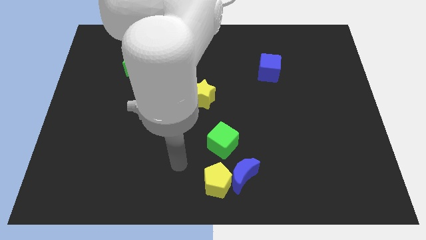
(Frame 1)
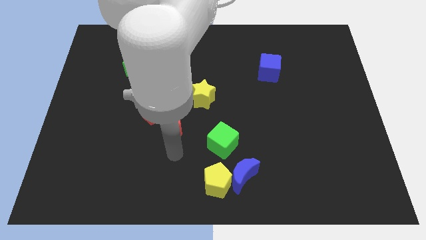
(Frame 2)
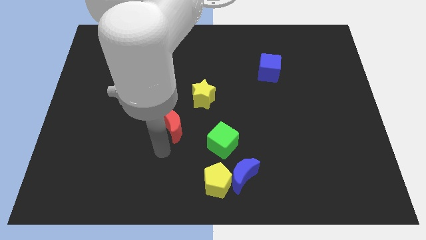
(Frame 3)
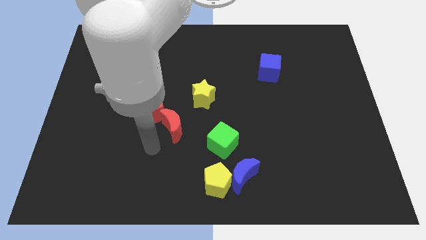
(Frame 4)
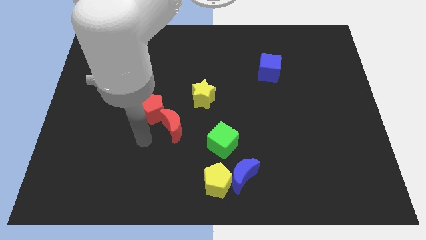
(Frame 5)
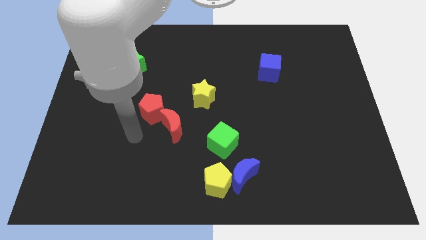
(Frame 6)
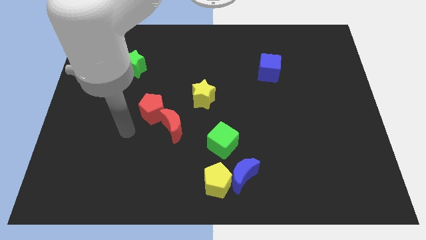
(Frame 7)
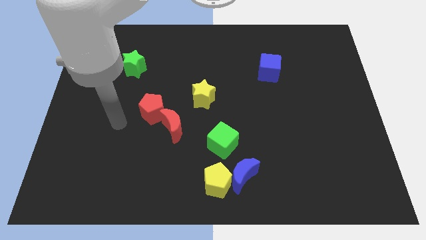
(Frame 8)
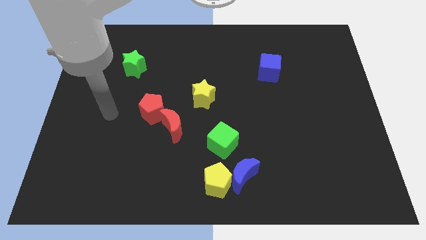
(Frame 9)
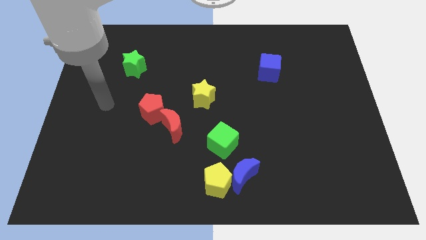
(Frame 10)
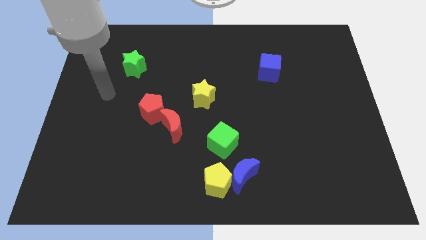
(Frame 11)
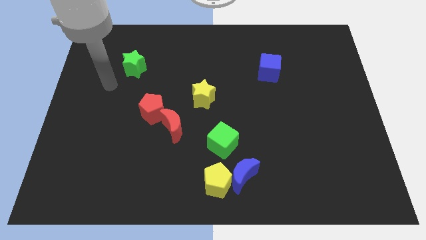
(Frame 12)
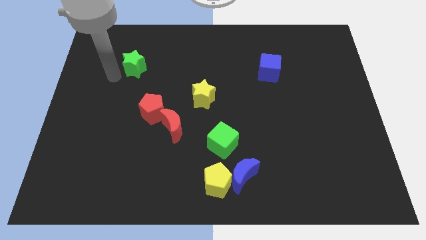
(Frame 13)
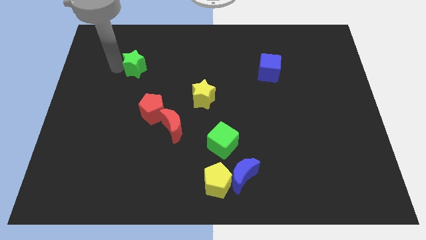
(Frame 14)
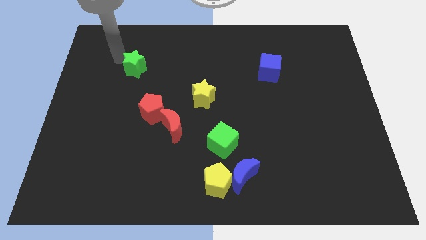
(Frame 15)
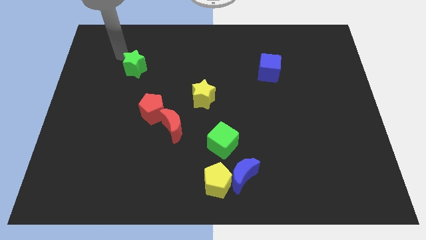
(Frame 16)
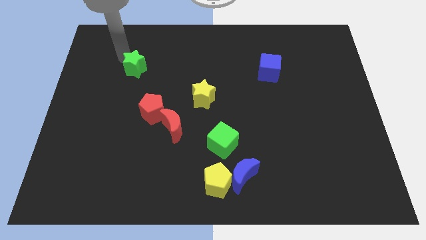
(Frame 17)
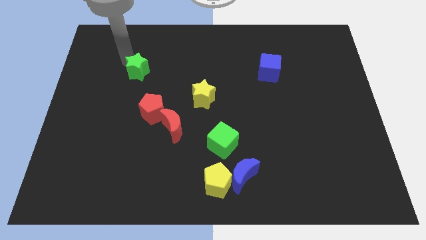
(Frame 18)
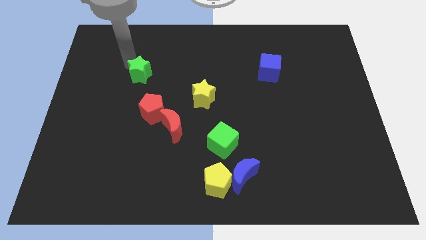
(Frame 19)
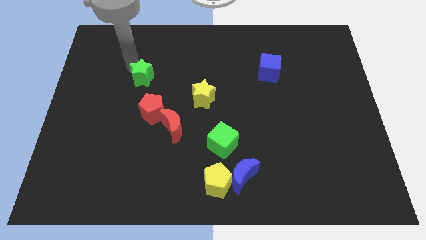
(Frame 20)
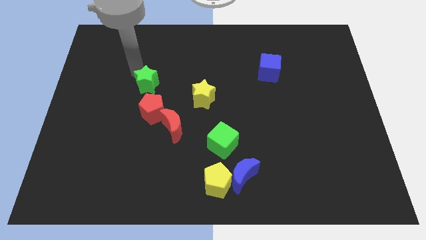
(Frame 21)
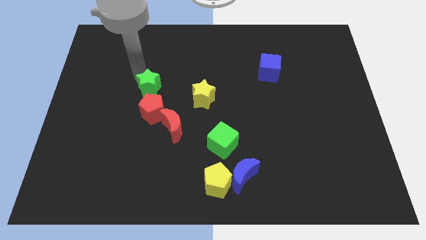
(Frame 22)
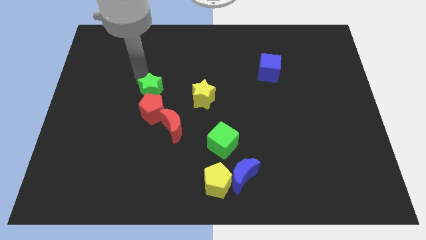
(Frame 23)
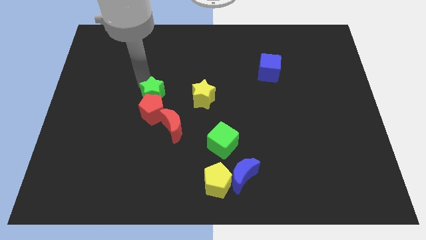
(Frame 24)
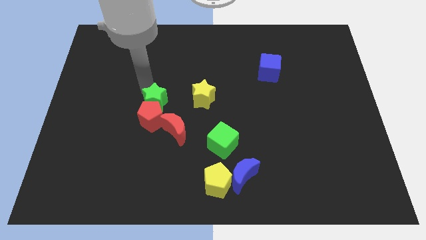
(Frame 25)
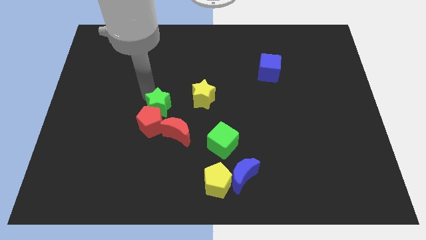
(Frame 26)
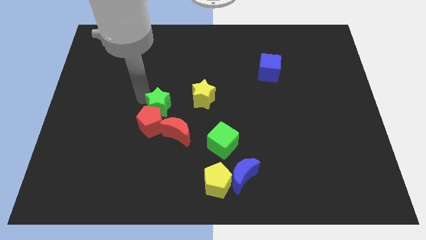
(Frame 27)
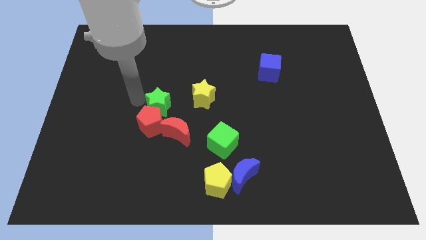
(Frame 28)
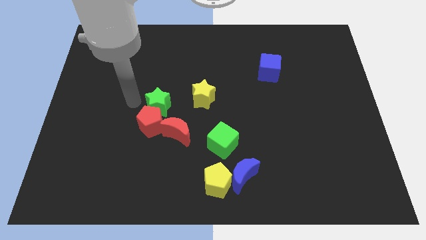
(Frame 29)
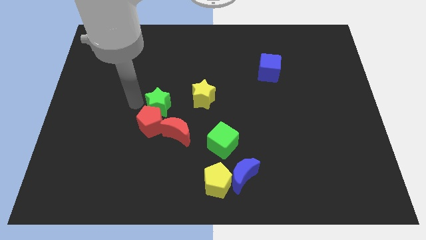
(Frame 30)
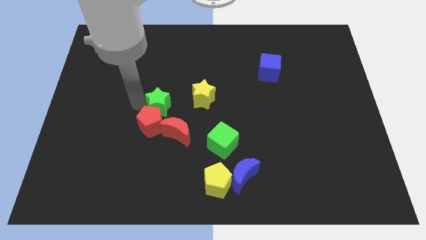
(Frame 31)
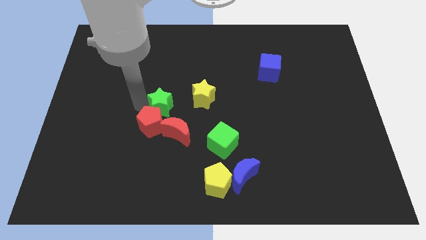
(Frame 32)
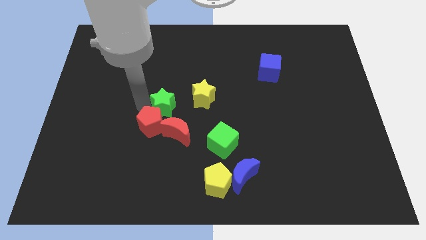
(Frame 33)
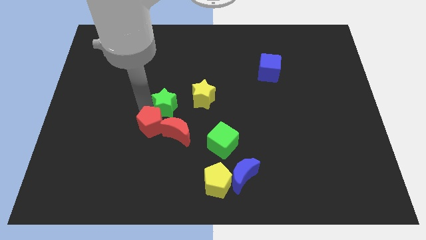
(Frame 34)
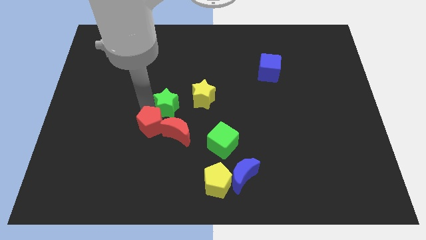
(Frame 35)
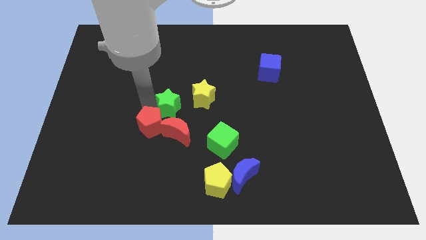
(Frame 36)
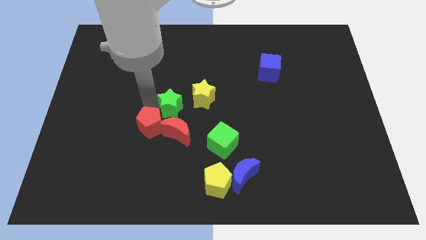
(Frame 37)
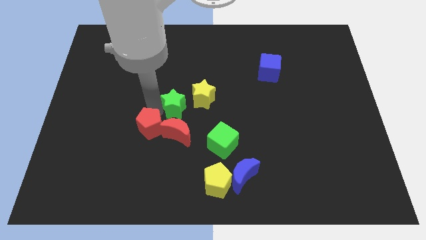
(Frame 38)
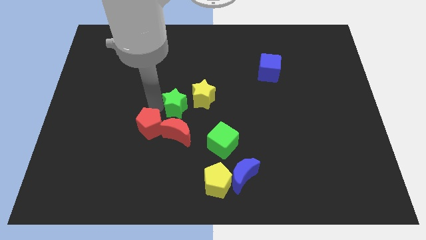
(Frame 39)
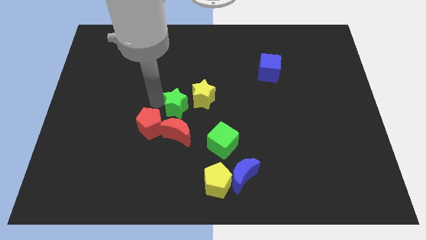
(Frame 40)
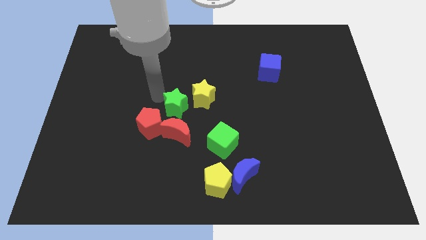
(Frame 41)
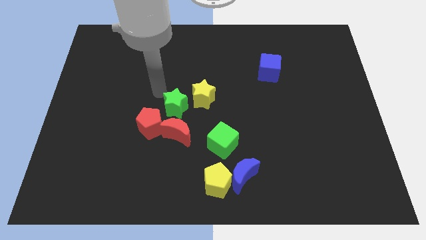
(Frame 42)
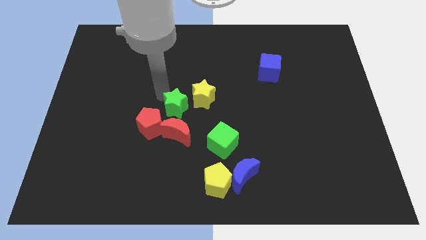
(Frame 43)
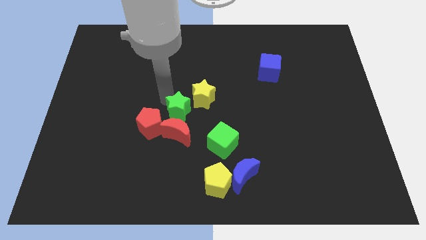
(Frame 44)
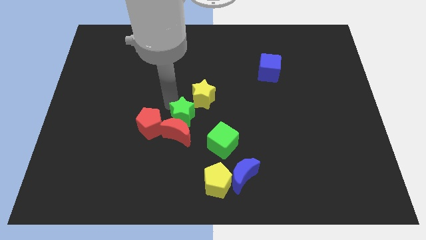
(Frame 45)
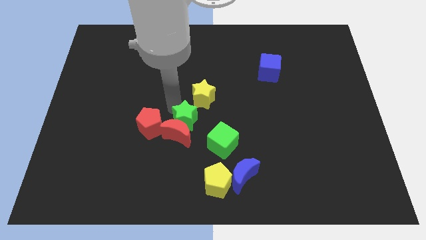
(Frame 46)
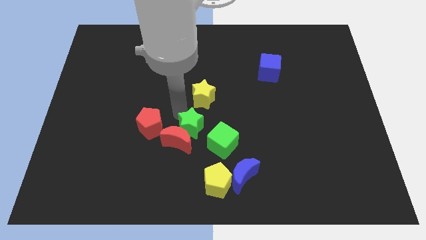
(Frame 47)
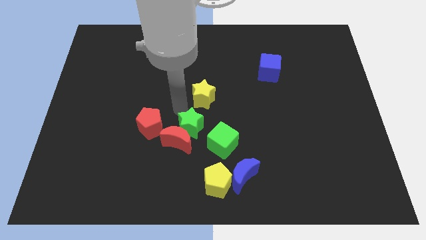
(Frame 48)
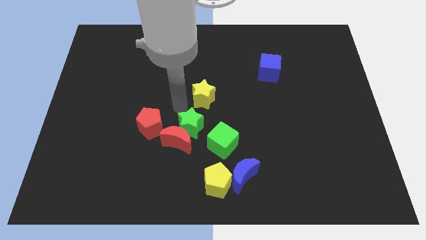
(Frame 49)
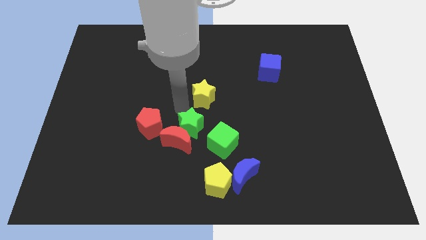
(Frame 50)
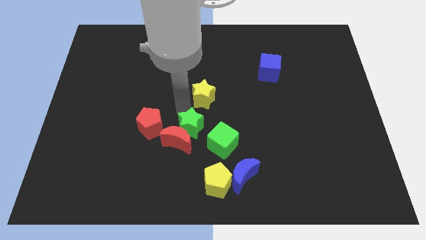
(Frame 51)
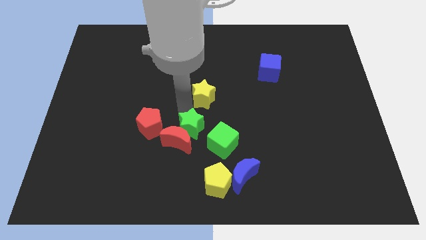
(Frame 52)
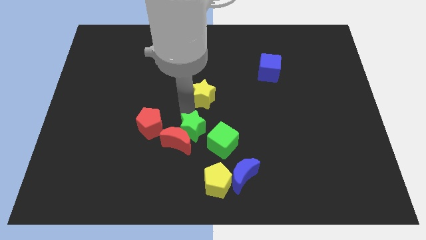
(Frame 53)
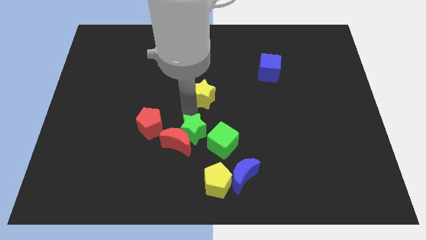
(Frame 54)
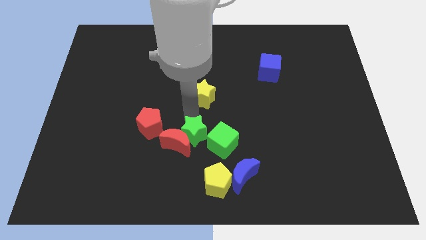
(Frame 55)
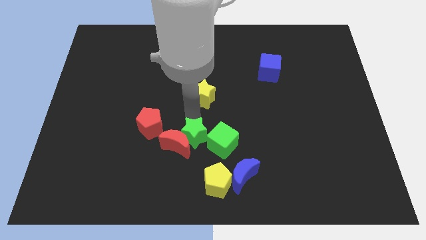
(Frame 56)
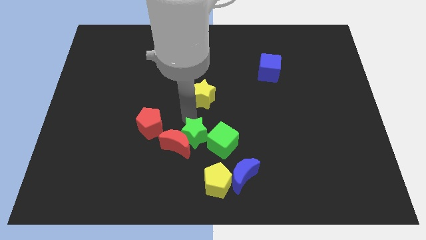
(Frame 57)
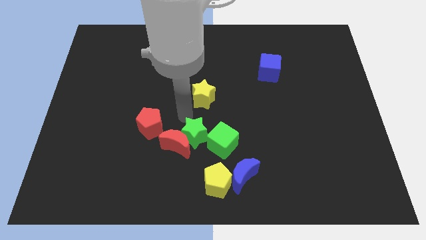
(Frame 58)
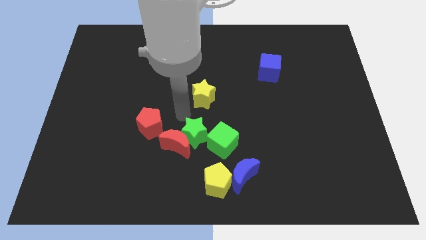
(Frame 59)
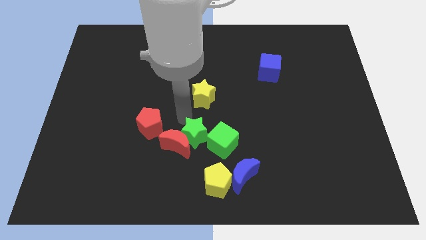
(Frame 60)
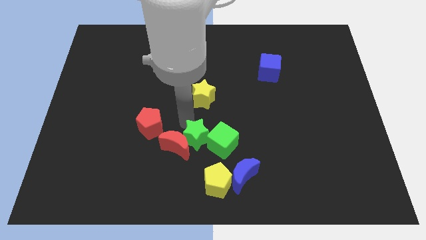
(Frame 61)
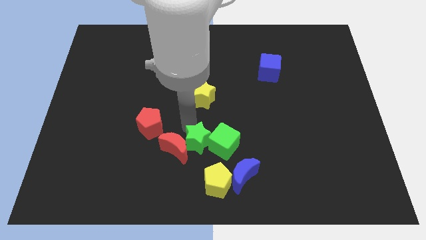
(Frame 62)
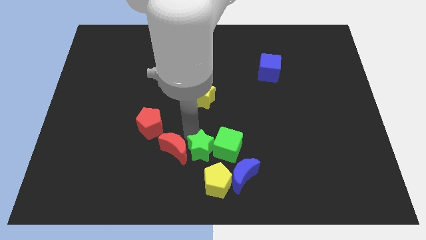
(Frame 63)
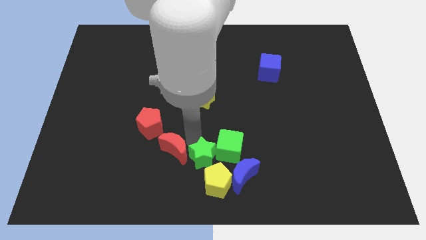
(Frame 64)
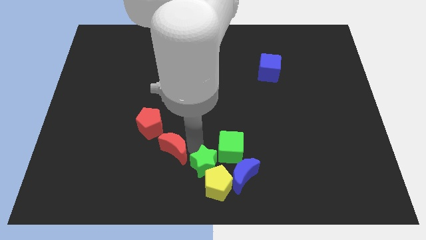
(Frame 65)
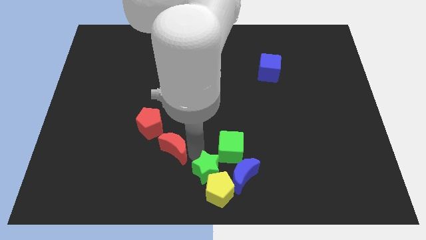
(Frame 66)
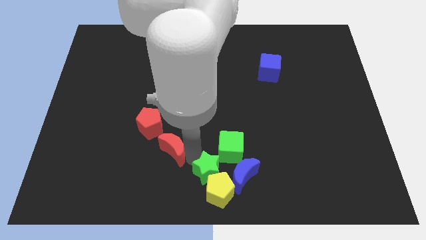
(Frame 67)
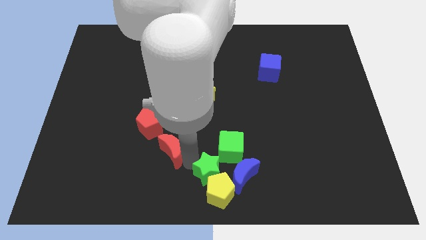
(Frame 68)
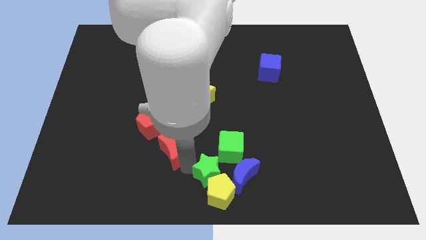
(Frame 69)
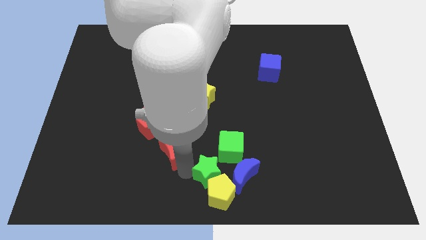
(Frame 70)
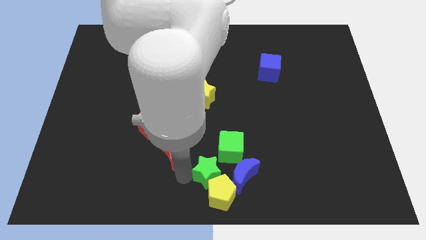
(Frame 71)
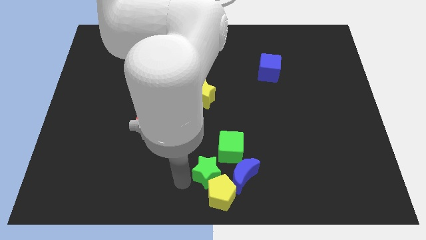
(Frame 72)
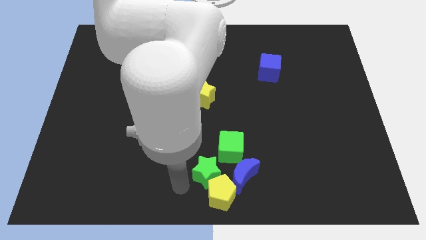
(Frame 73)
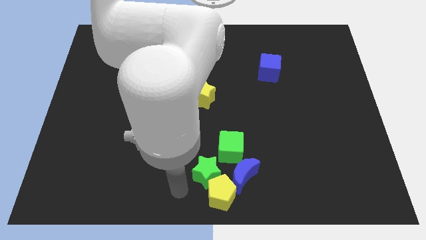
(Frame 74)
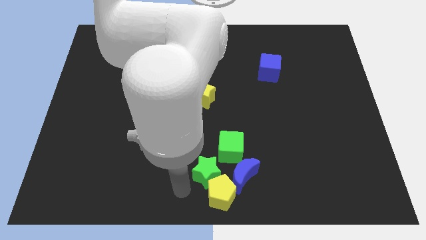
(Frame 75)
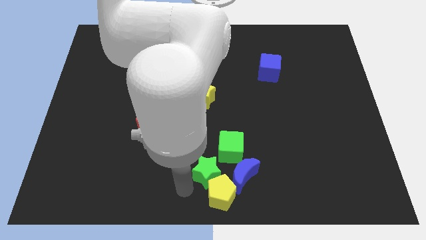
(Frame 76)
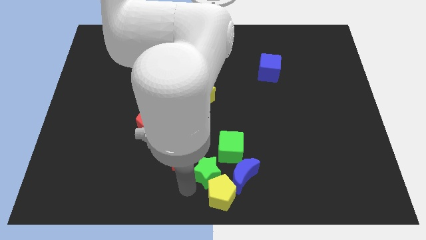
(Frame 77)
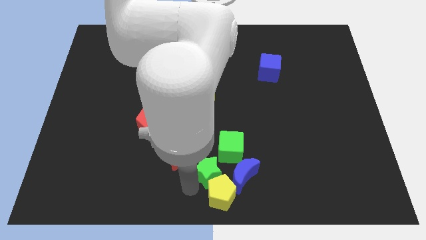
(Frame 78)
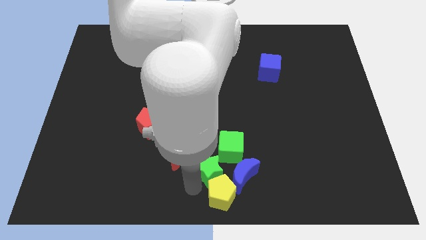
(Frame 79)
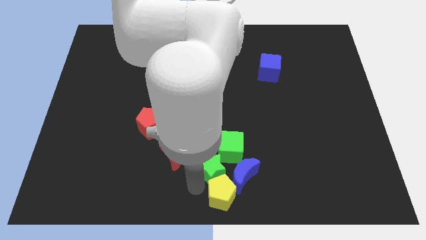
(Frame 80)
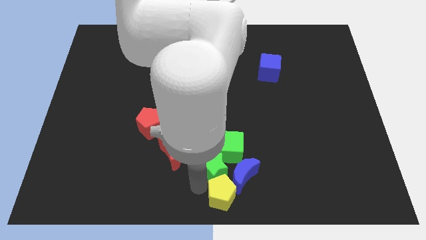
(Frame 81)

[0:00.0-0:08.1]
slide the green star next to the blue moon
